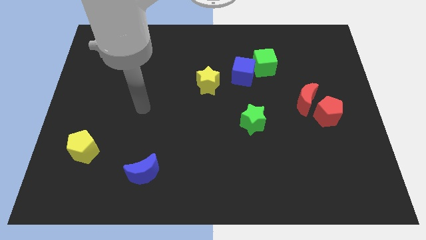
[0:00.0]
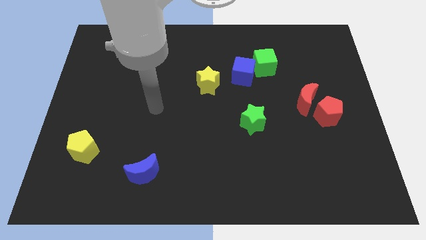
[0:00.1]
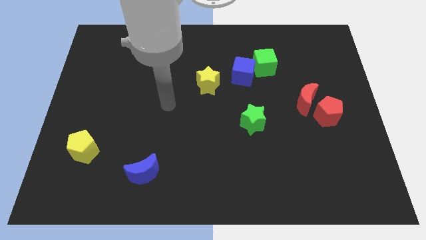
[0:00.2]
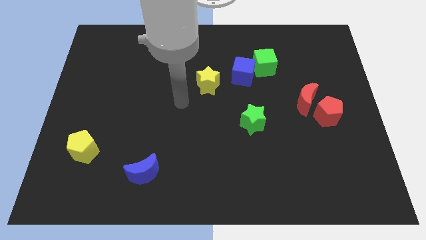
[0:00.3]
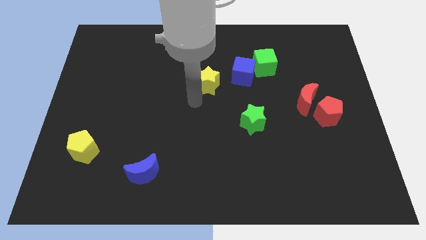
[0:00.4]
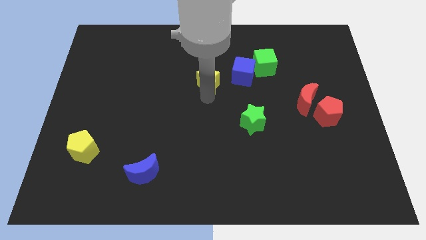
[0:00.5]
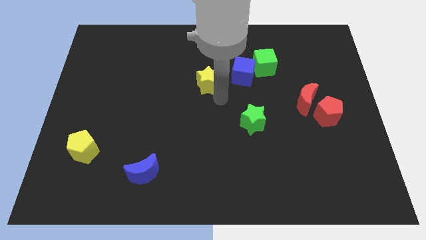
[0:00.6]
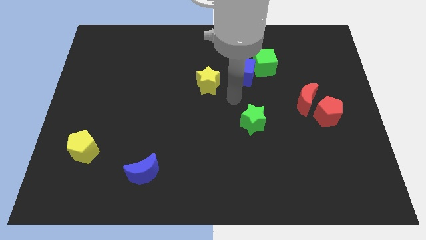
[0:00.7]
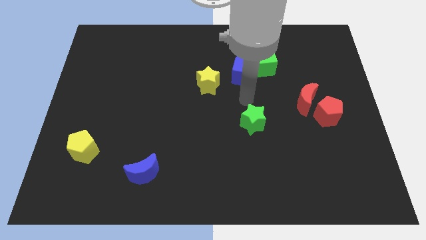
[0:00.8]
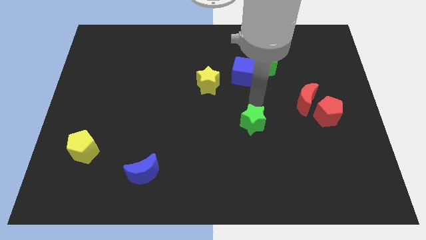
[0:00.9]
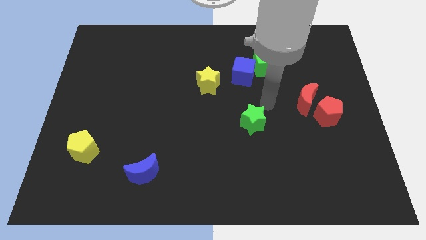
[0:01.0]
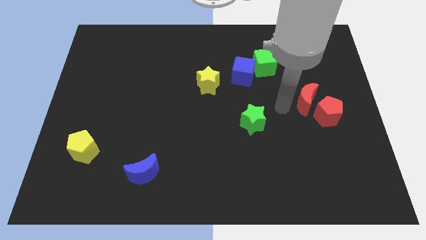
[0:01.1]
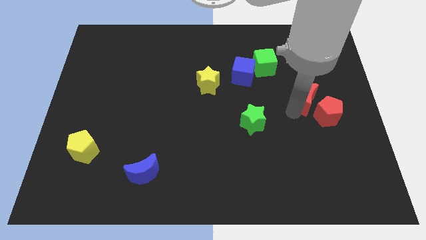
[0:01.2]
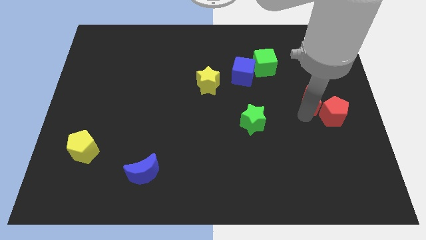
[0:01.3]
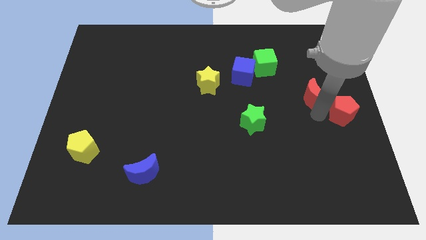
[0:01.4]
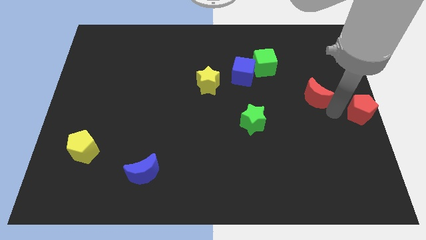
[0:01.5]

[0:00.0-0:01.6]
pull the red moon apart from the red pentagon

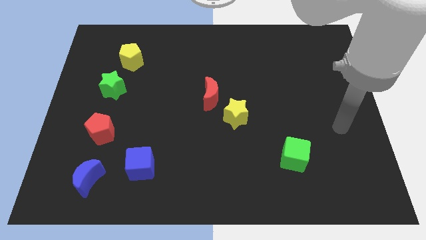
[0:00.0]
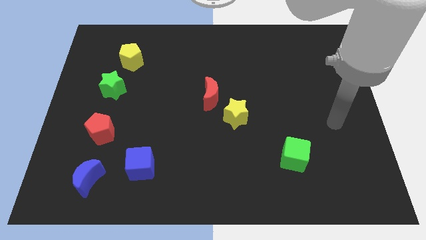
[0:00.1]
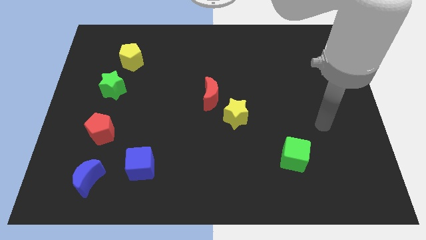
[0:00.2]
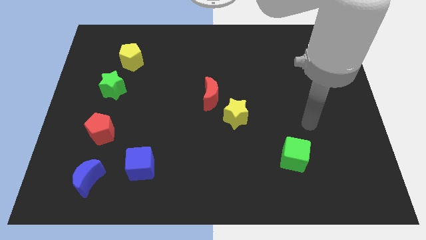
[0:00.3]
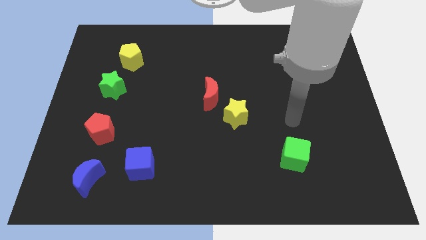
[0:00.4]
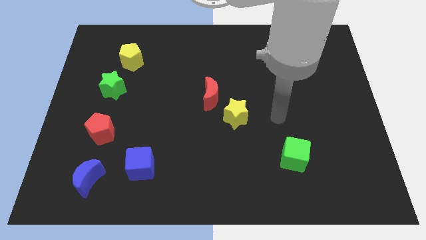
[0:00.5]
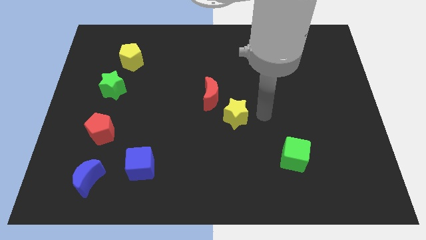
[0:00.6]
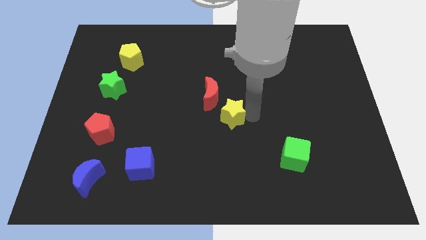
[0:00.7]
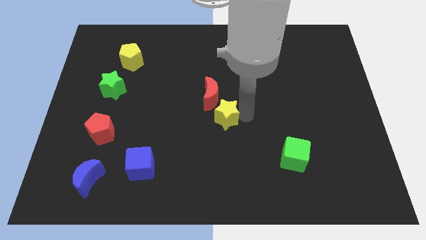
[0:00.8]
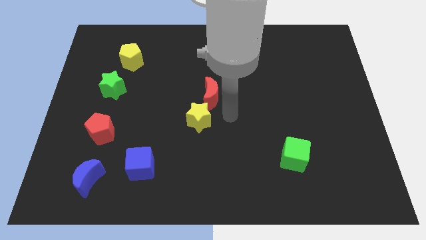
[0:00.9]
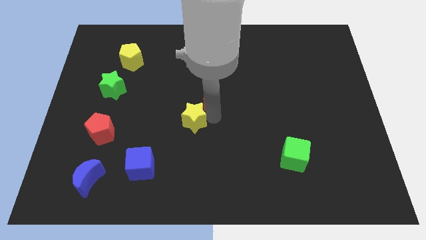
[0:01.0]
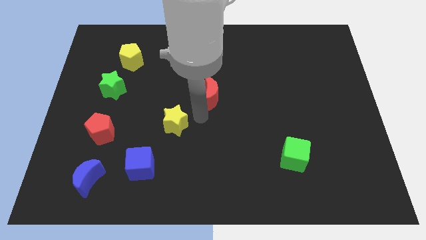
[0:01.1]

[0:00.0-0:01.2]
pull the red moon apart from the yellow star

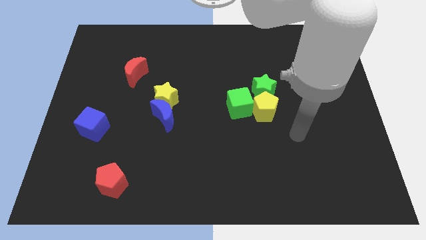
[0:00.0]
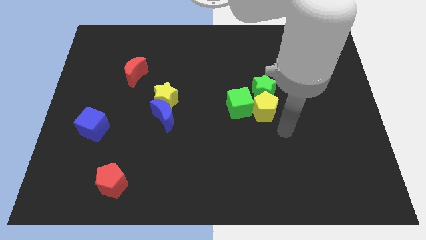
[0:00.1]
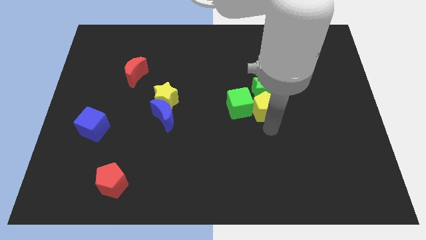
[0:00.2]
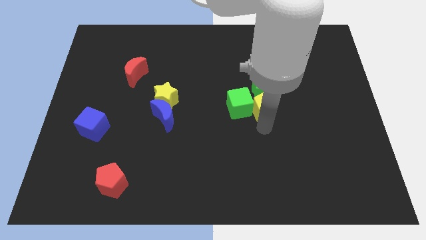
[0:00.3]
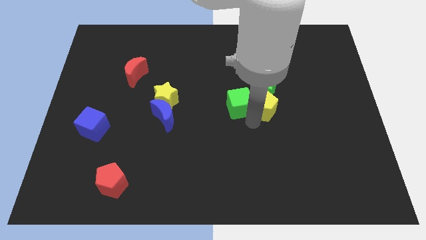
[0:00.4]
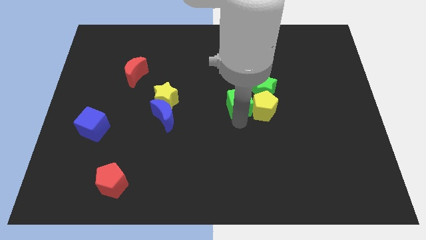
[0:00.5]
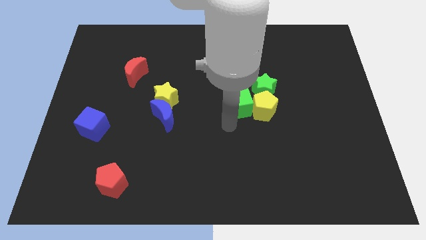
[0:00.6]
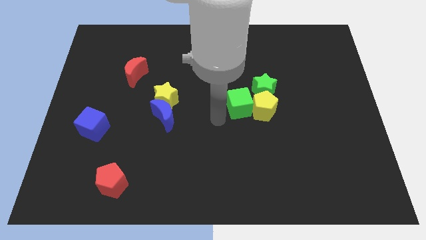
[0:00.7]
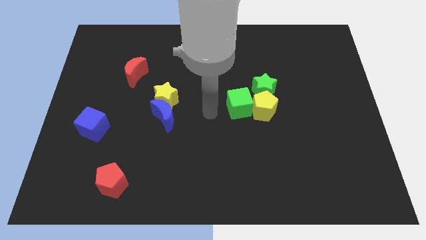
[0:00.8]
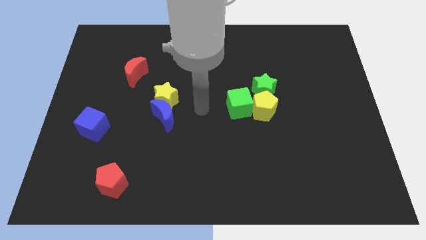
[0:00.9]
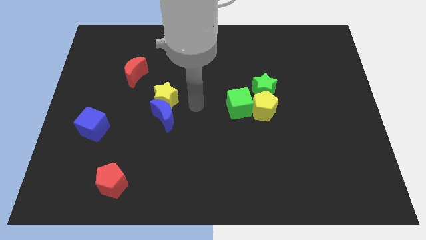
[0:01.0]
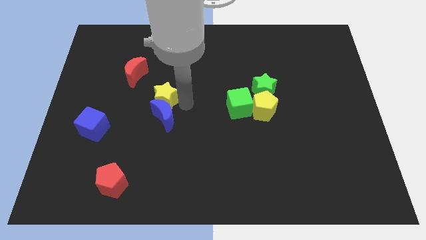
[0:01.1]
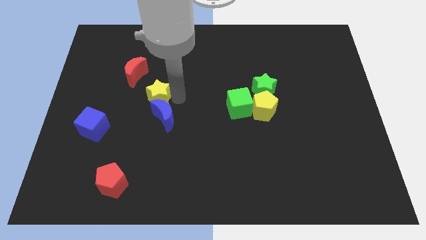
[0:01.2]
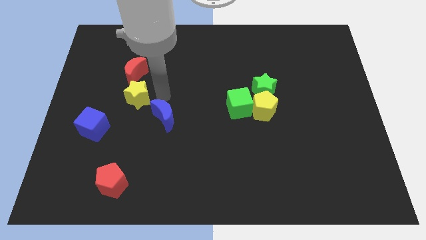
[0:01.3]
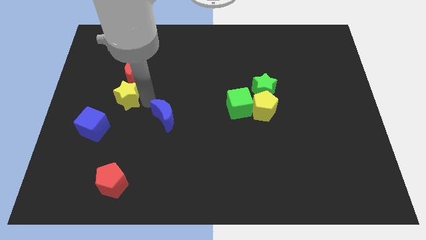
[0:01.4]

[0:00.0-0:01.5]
pull the blue moon apart from the yellow star

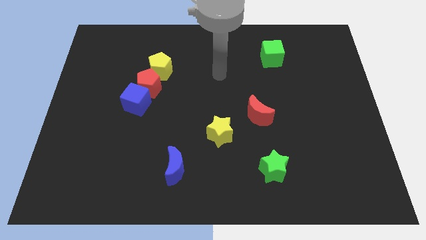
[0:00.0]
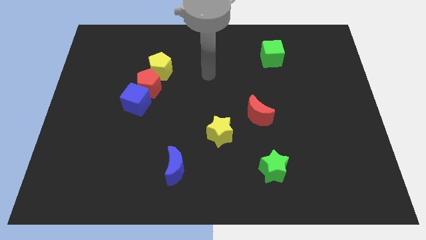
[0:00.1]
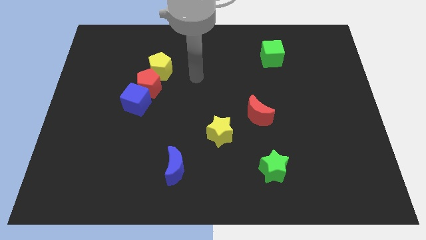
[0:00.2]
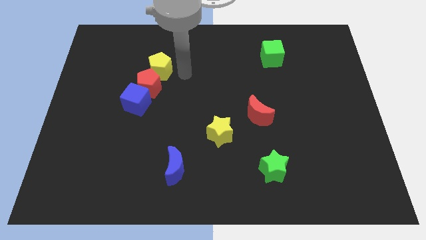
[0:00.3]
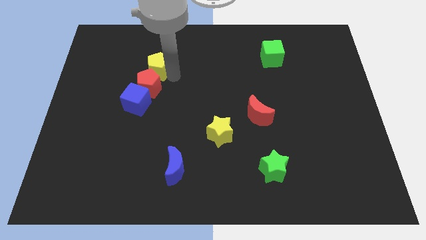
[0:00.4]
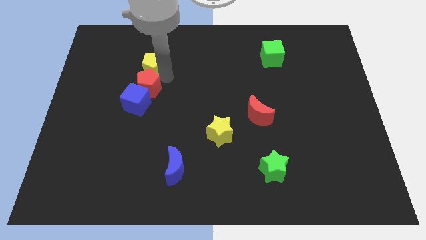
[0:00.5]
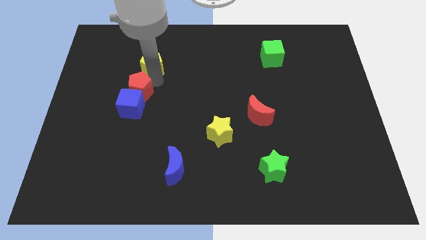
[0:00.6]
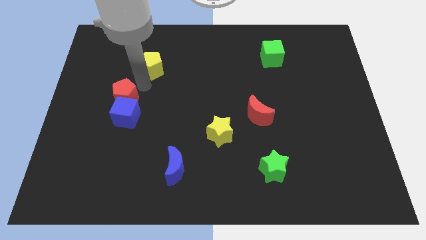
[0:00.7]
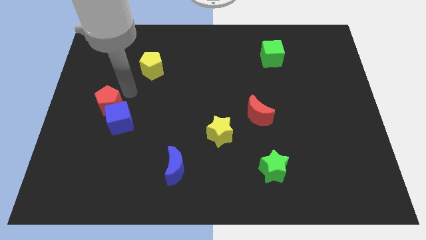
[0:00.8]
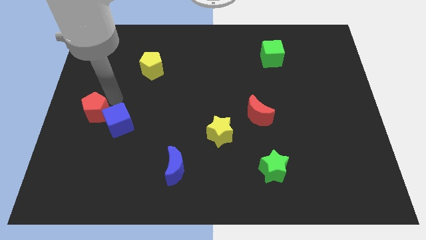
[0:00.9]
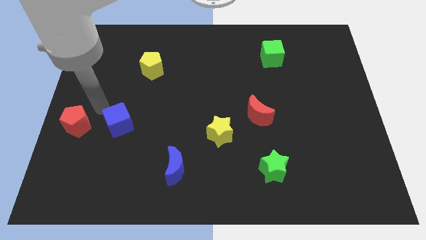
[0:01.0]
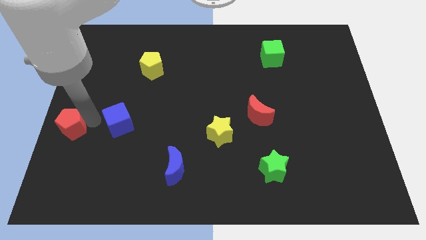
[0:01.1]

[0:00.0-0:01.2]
separate the blue cube from the red pentagon

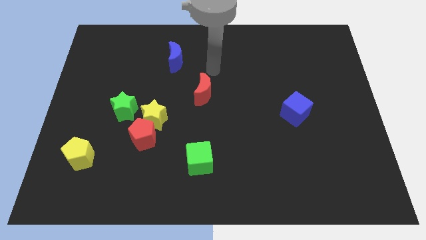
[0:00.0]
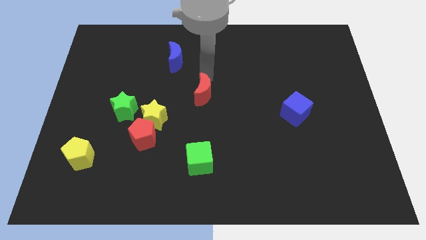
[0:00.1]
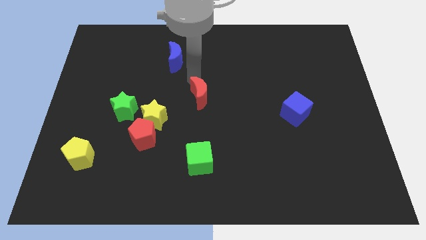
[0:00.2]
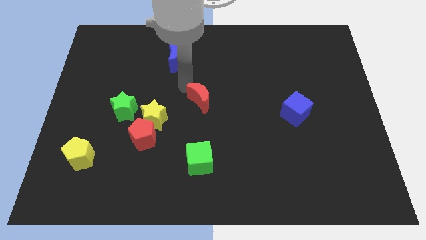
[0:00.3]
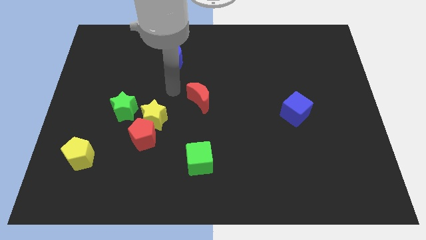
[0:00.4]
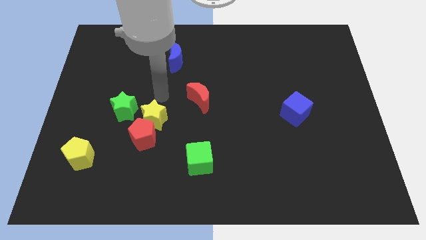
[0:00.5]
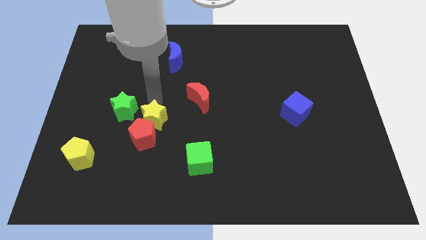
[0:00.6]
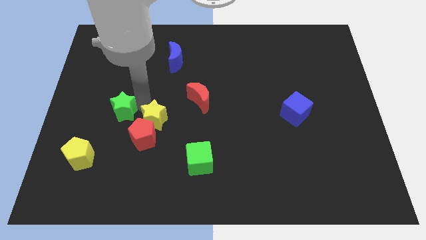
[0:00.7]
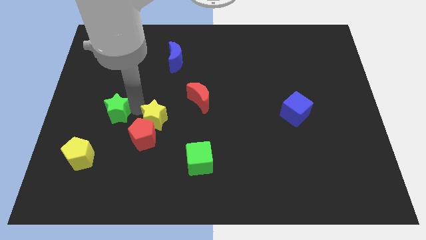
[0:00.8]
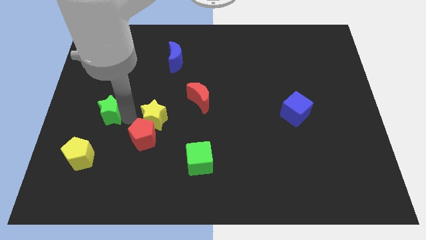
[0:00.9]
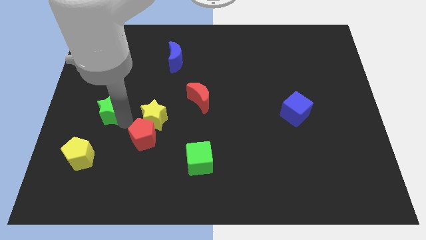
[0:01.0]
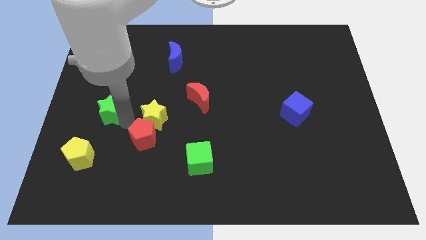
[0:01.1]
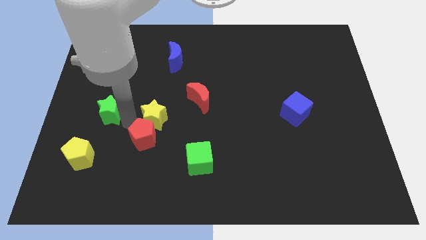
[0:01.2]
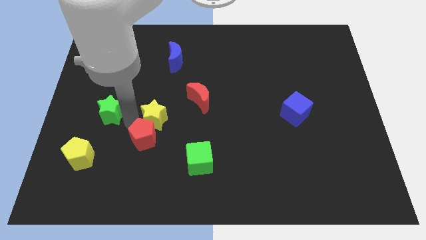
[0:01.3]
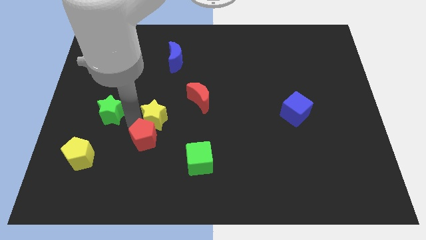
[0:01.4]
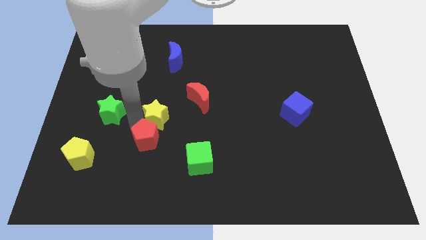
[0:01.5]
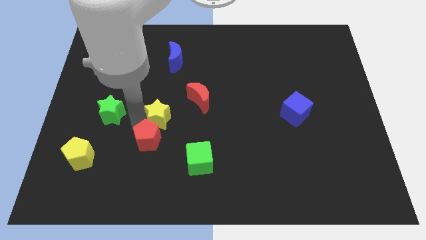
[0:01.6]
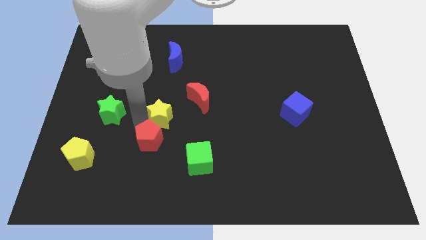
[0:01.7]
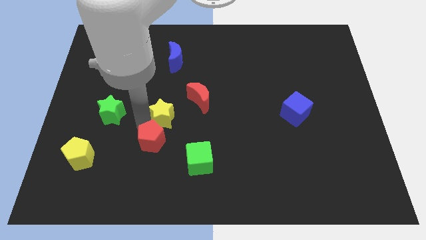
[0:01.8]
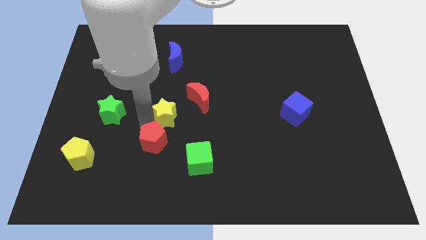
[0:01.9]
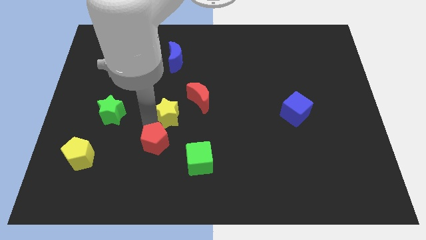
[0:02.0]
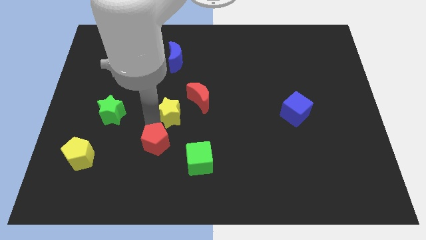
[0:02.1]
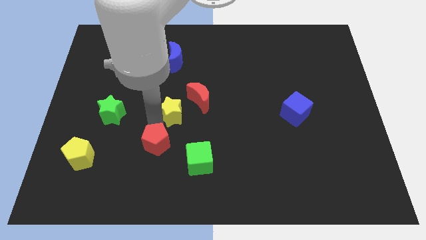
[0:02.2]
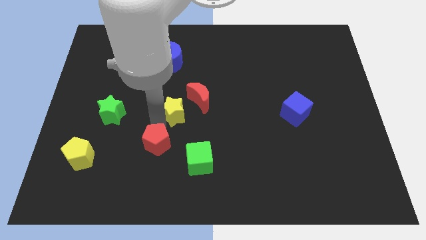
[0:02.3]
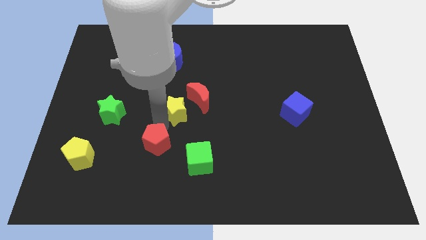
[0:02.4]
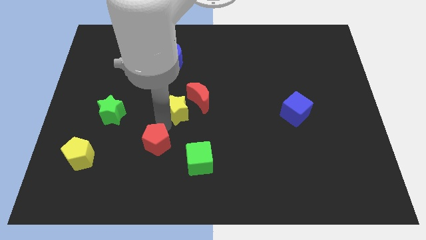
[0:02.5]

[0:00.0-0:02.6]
separate the yellow star from the red pentagon and green star

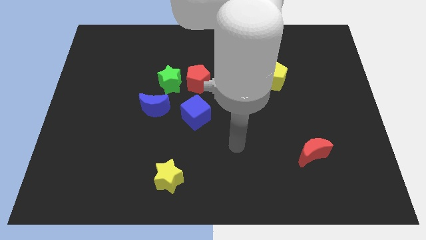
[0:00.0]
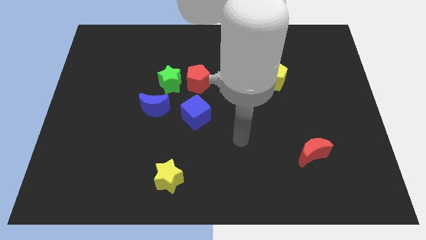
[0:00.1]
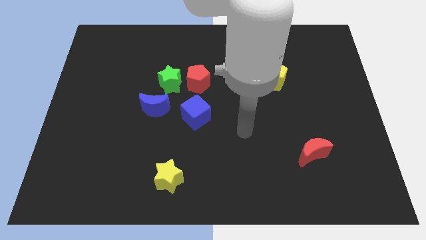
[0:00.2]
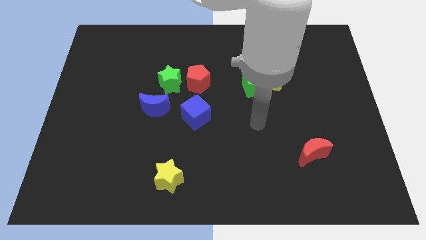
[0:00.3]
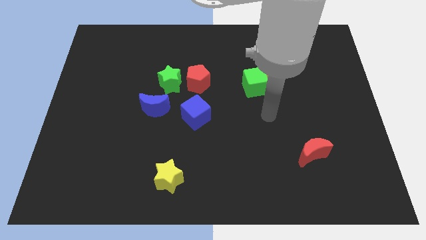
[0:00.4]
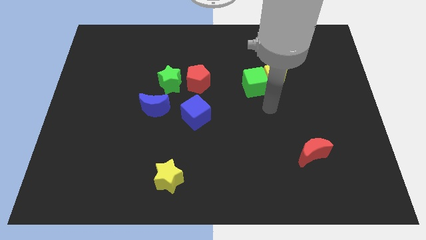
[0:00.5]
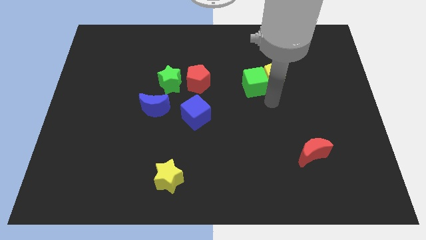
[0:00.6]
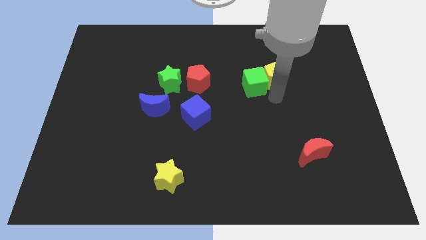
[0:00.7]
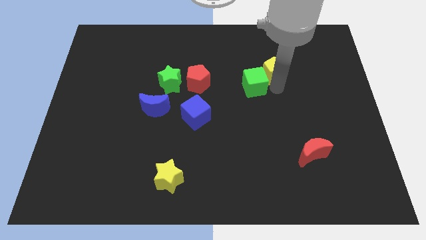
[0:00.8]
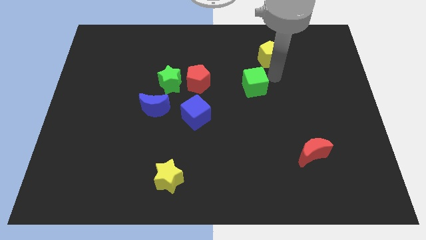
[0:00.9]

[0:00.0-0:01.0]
separate the green cube from the yellow pentagon

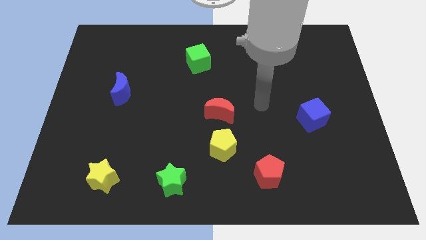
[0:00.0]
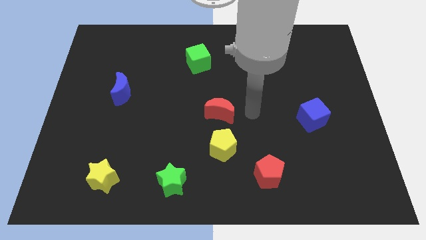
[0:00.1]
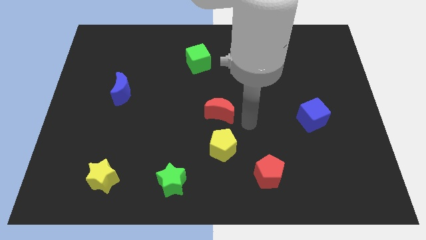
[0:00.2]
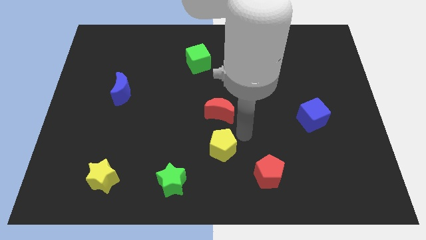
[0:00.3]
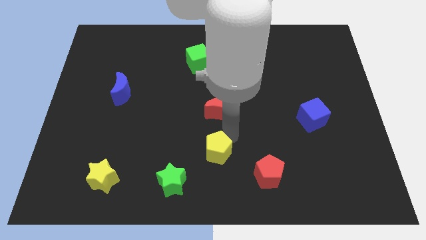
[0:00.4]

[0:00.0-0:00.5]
pull the red moon apart from the yellow pentagon
